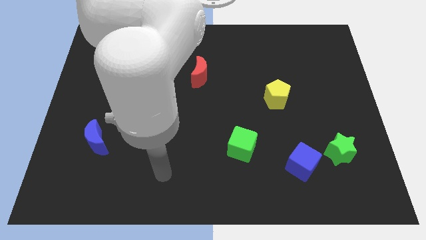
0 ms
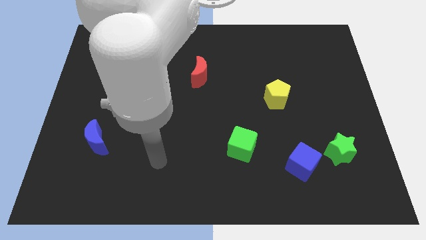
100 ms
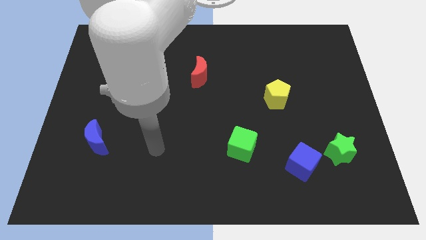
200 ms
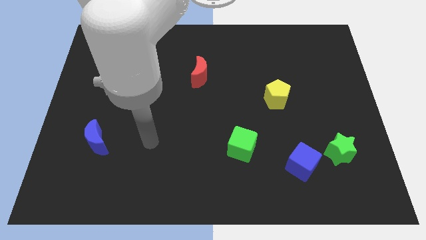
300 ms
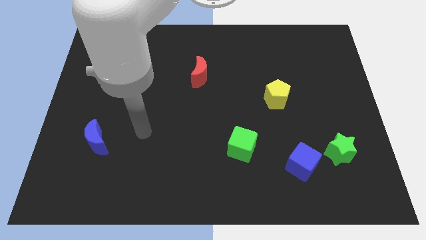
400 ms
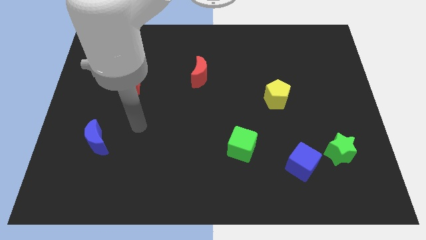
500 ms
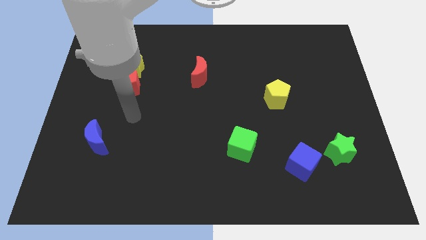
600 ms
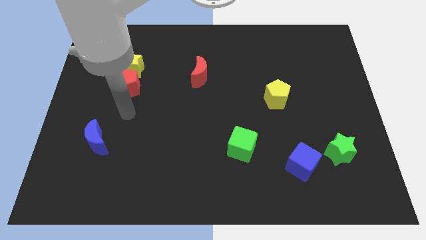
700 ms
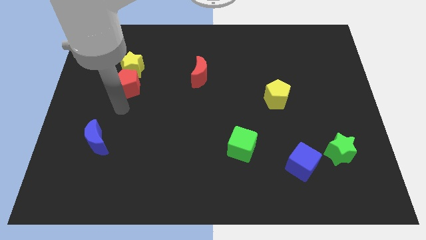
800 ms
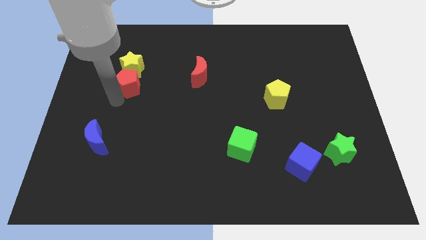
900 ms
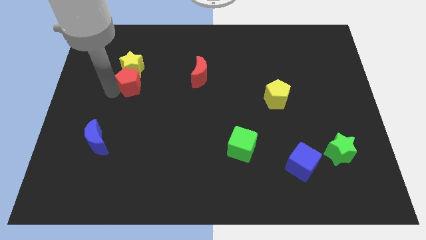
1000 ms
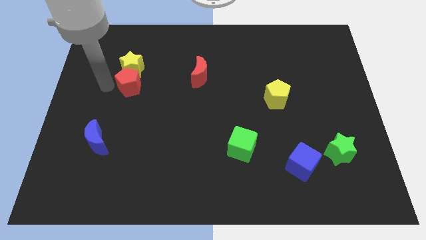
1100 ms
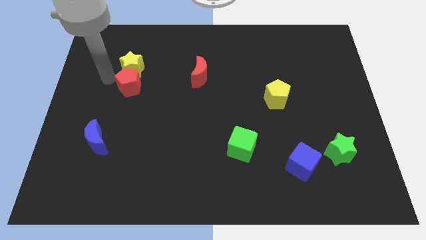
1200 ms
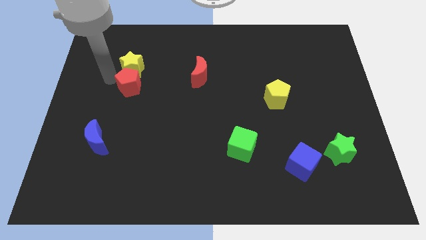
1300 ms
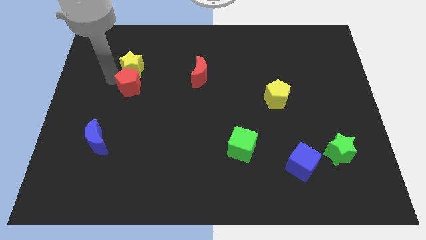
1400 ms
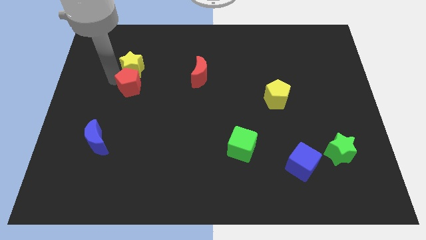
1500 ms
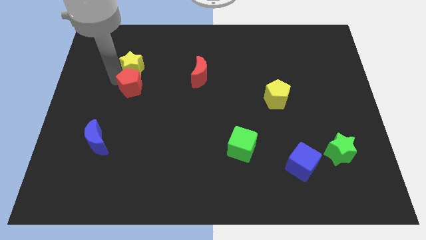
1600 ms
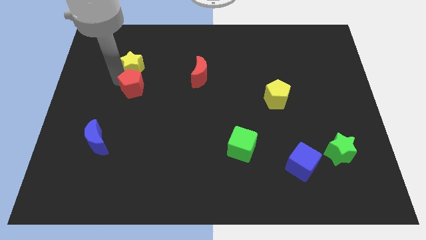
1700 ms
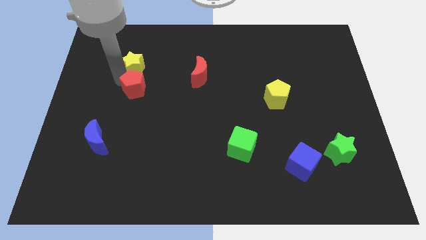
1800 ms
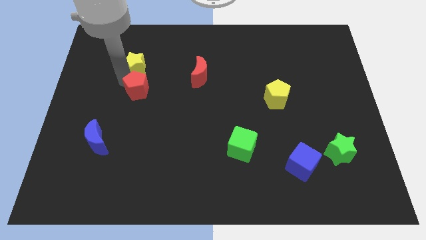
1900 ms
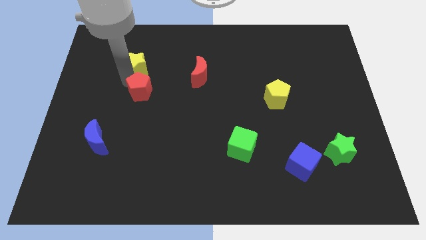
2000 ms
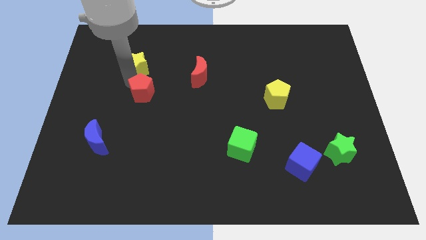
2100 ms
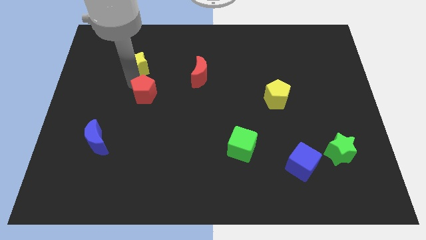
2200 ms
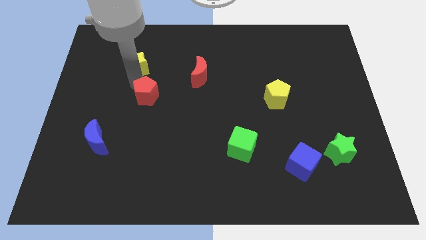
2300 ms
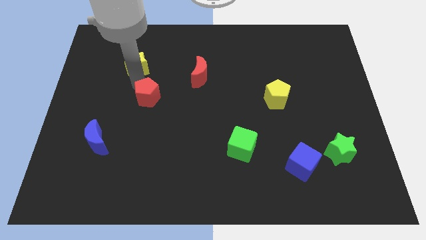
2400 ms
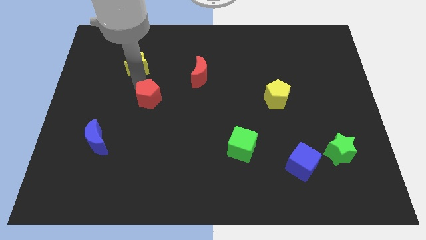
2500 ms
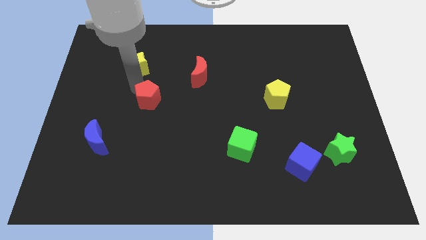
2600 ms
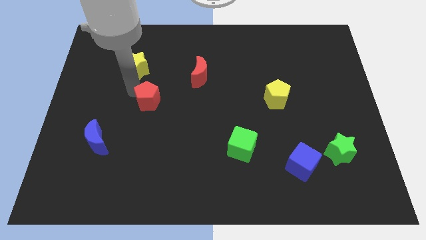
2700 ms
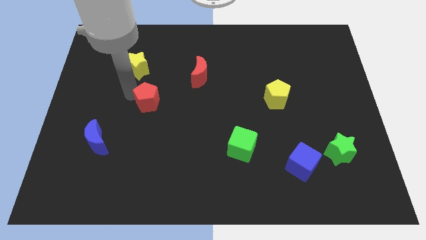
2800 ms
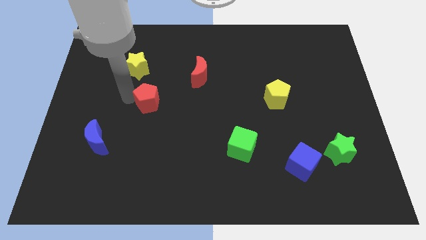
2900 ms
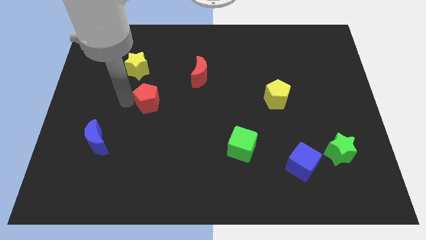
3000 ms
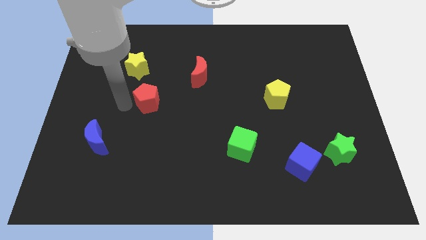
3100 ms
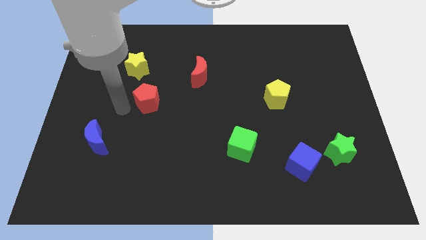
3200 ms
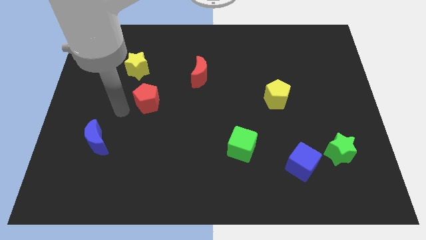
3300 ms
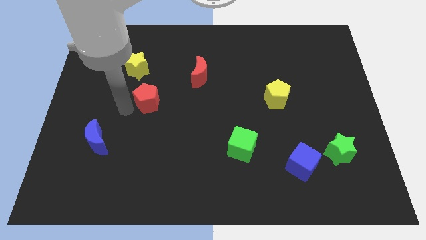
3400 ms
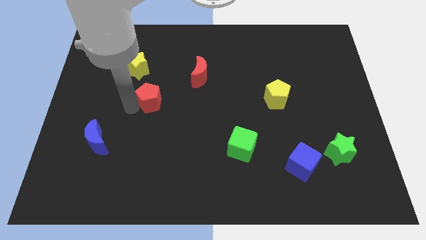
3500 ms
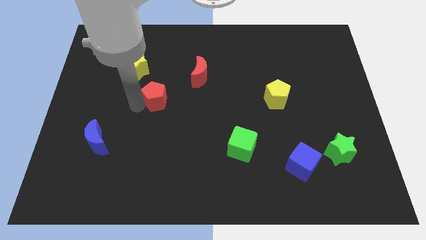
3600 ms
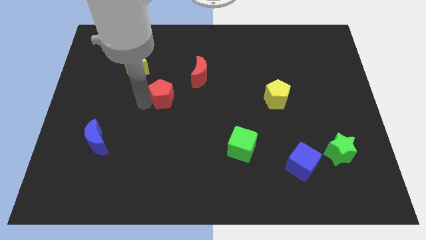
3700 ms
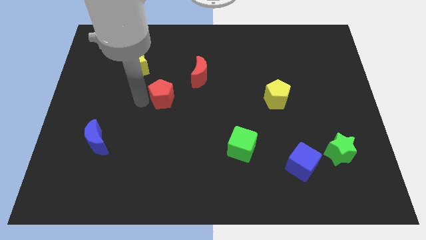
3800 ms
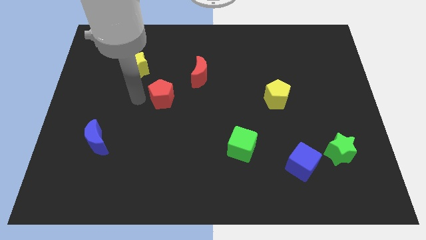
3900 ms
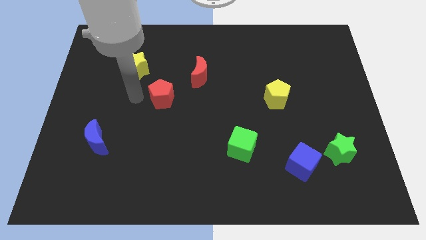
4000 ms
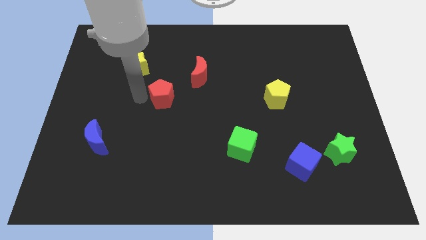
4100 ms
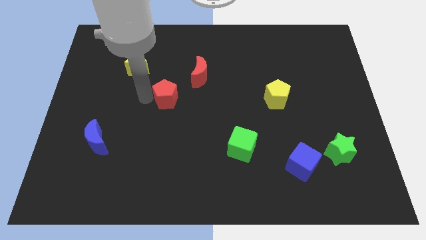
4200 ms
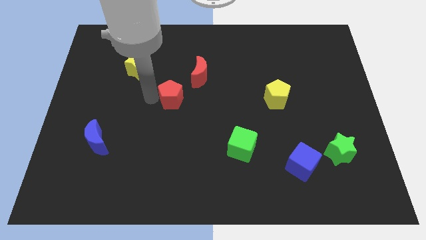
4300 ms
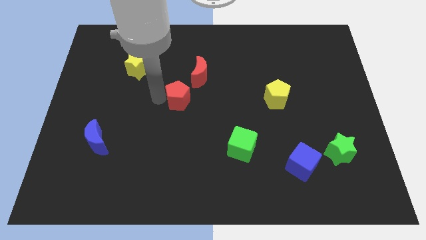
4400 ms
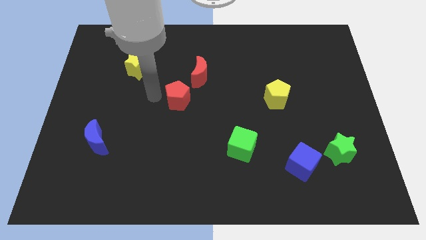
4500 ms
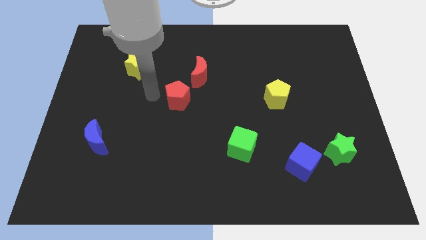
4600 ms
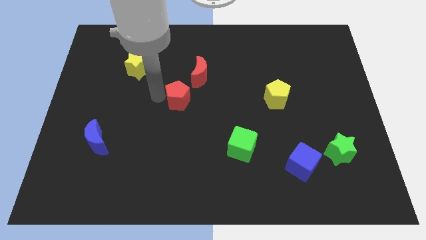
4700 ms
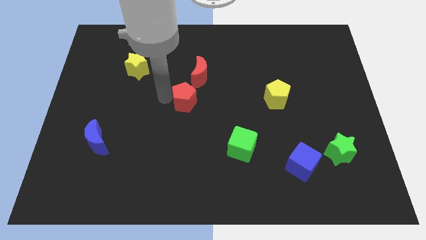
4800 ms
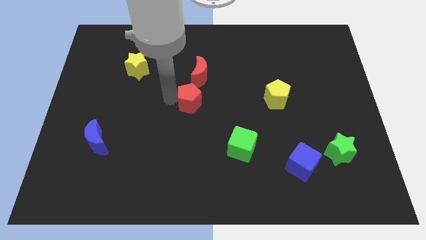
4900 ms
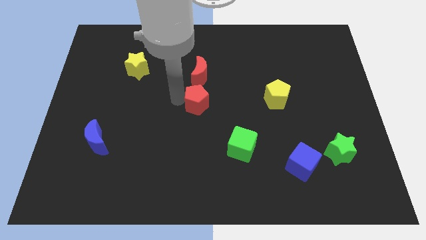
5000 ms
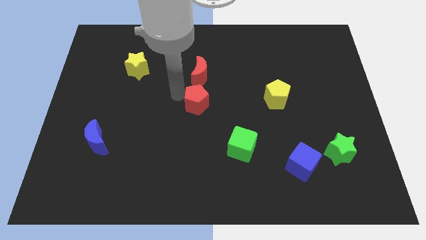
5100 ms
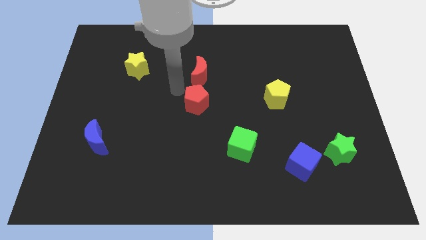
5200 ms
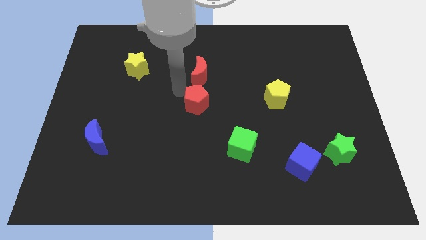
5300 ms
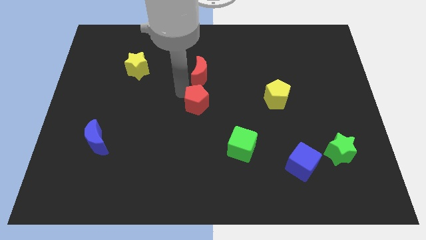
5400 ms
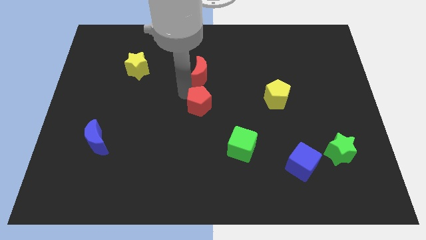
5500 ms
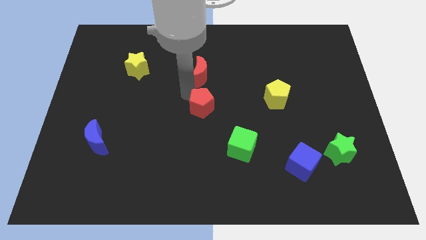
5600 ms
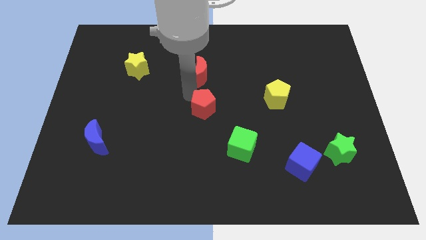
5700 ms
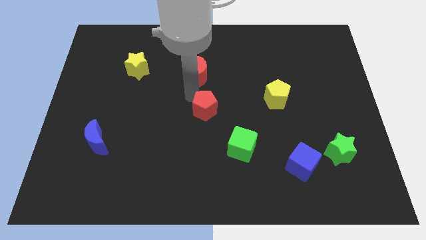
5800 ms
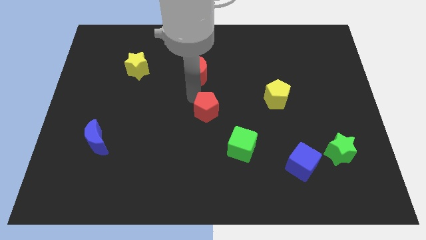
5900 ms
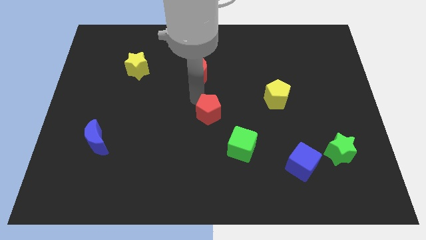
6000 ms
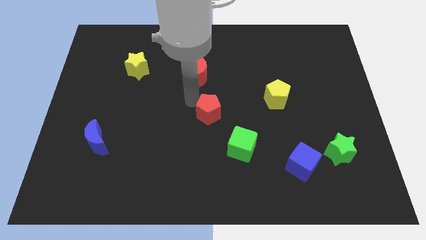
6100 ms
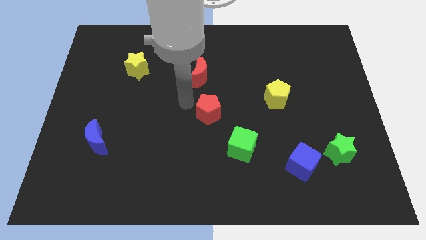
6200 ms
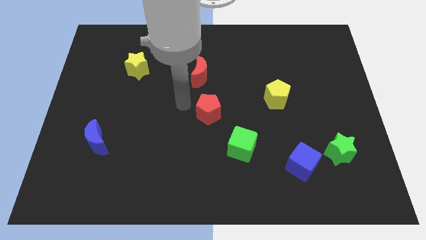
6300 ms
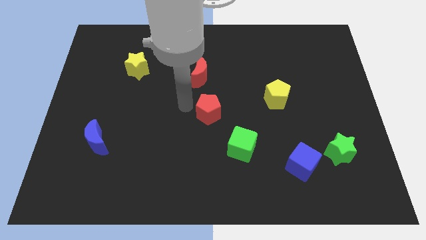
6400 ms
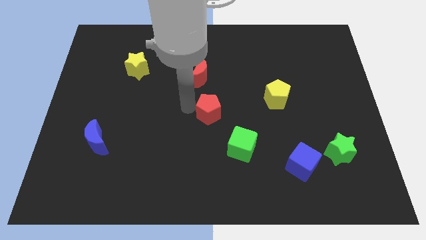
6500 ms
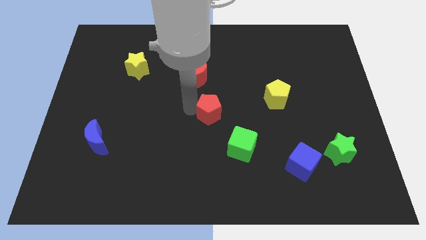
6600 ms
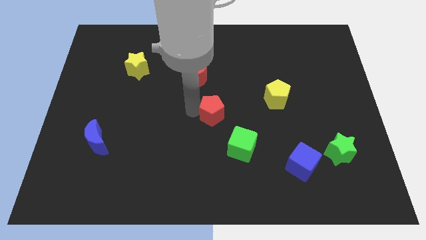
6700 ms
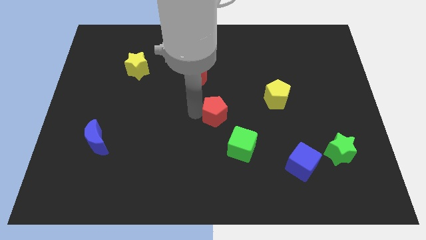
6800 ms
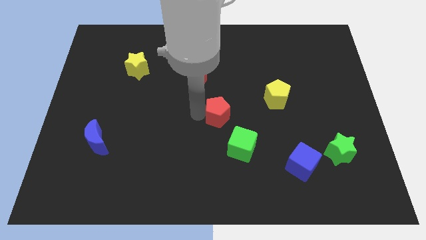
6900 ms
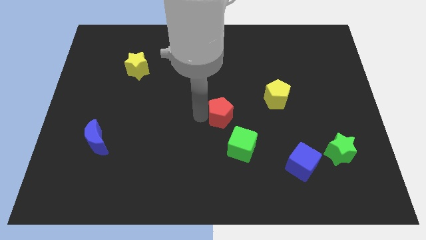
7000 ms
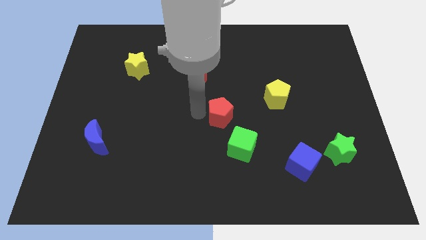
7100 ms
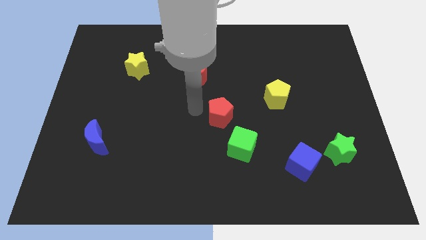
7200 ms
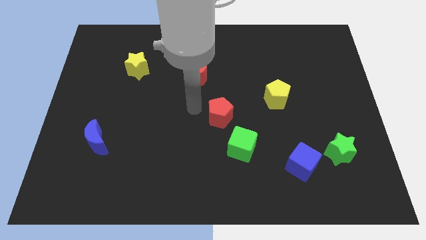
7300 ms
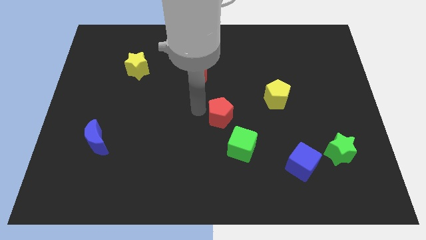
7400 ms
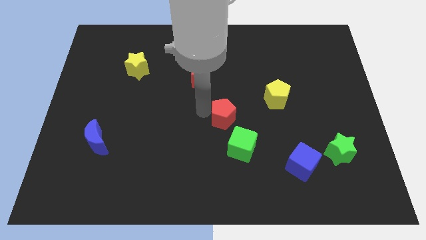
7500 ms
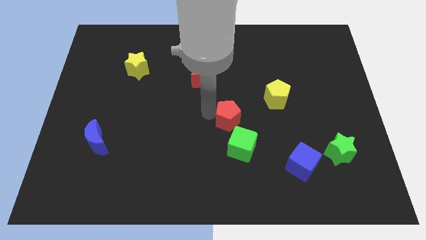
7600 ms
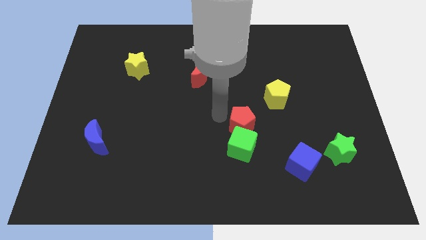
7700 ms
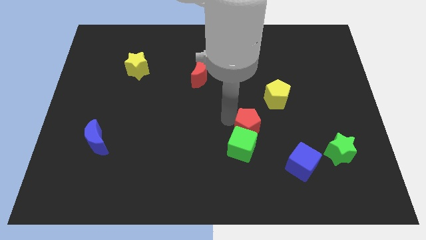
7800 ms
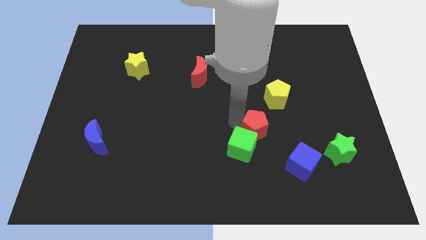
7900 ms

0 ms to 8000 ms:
push the red pentagon to the top left side of the blue cube
